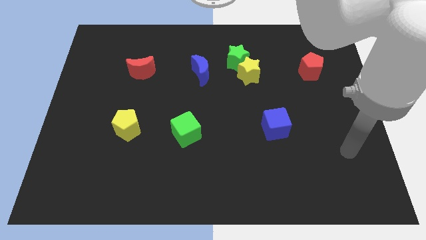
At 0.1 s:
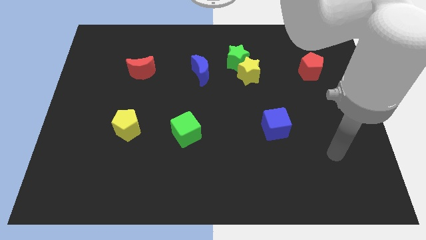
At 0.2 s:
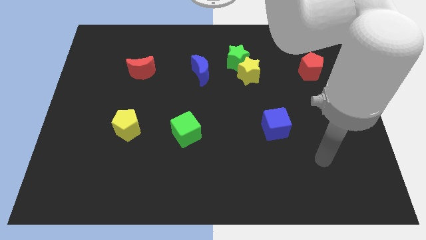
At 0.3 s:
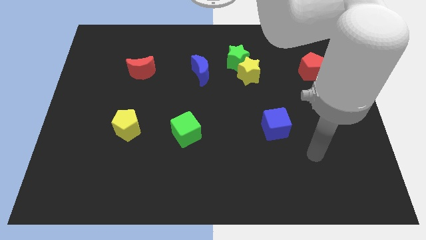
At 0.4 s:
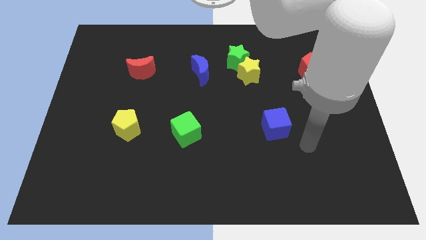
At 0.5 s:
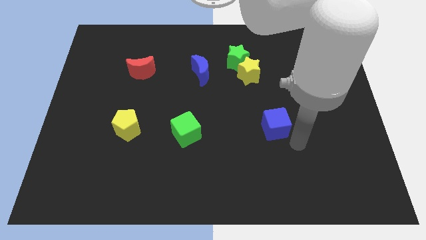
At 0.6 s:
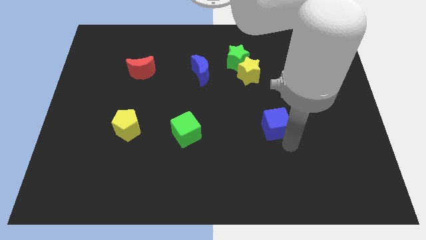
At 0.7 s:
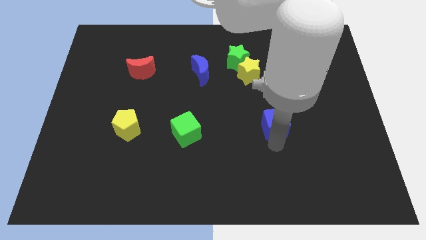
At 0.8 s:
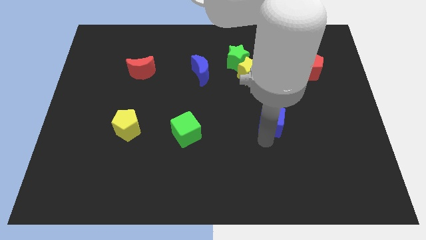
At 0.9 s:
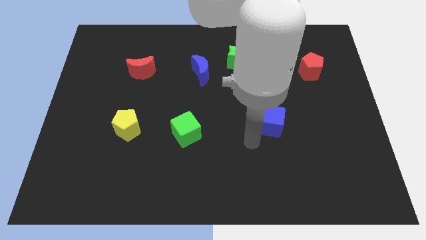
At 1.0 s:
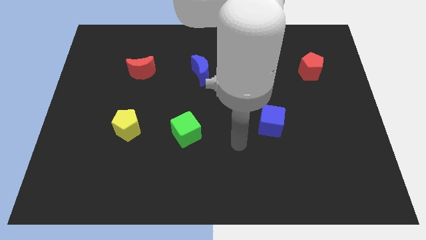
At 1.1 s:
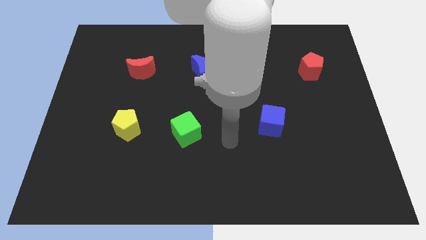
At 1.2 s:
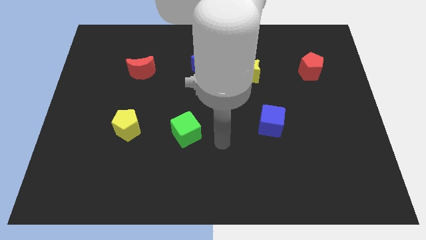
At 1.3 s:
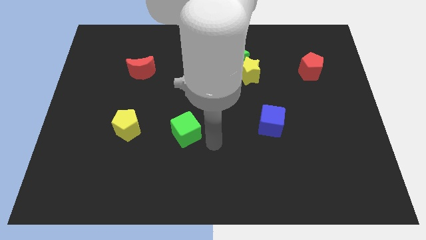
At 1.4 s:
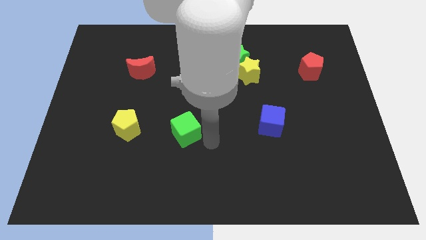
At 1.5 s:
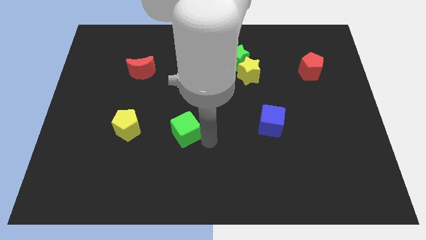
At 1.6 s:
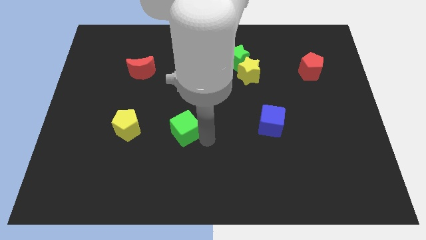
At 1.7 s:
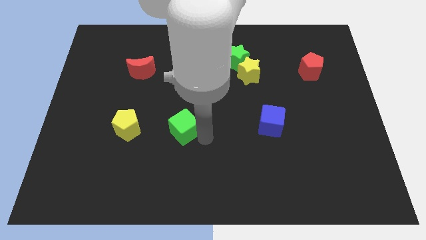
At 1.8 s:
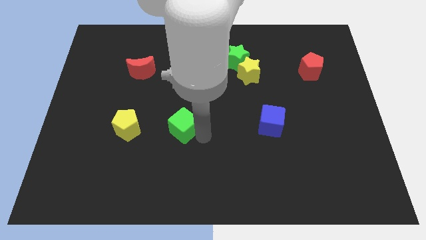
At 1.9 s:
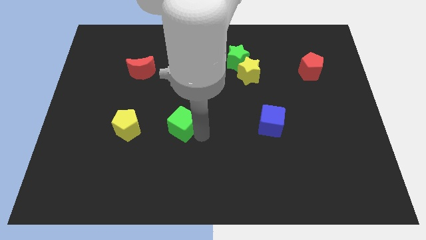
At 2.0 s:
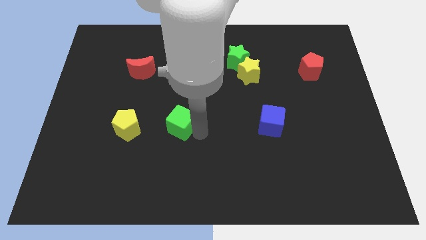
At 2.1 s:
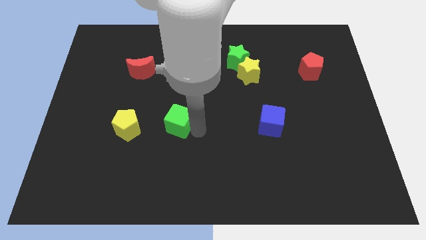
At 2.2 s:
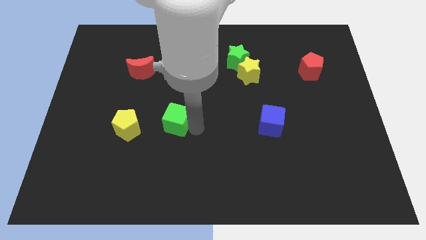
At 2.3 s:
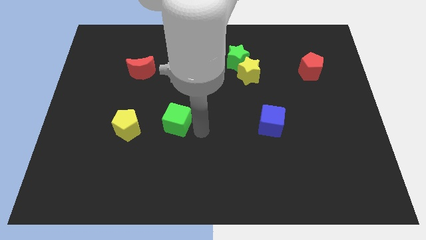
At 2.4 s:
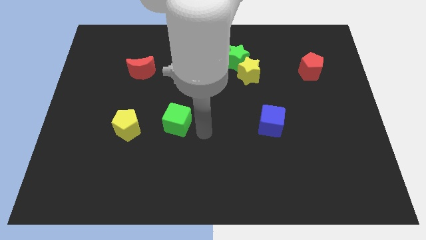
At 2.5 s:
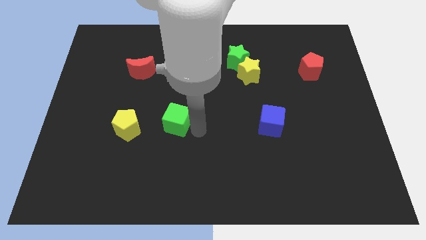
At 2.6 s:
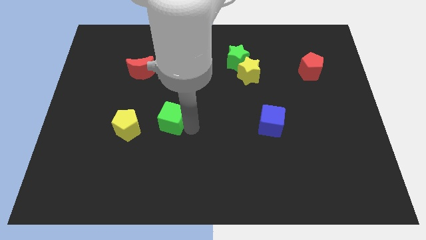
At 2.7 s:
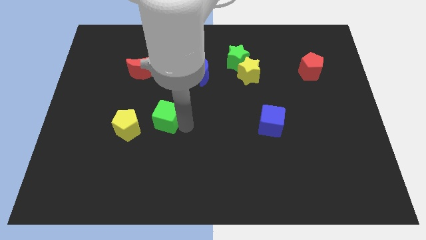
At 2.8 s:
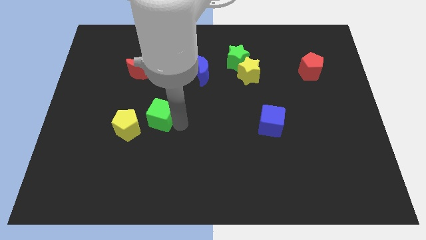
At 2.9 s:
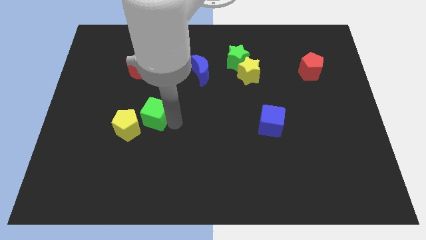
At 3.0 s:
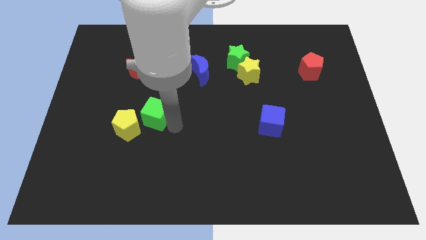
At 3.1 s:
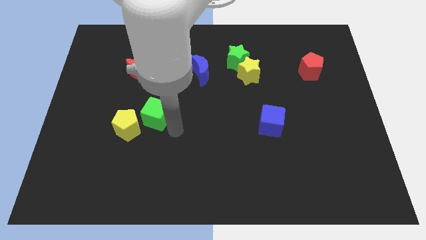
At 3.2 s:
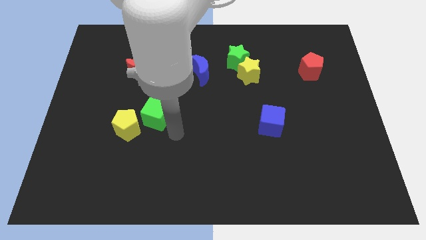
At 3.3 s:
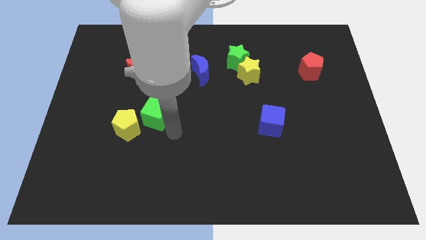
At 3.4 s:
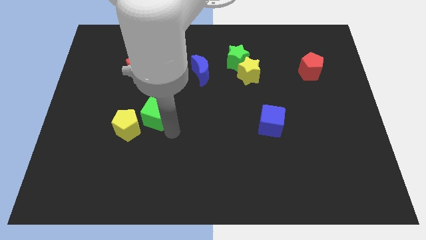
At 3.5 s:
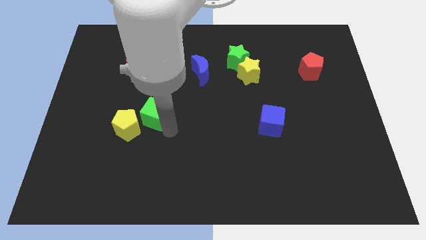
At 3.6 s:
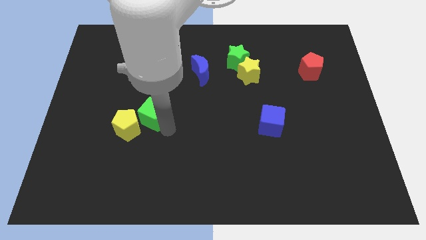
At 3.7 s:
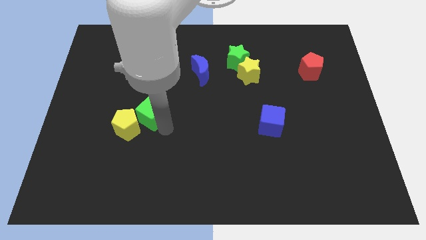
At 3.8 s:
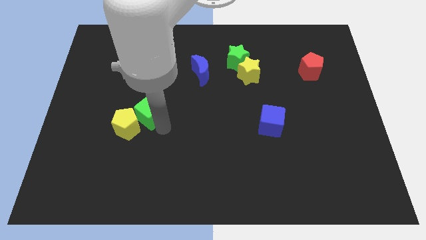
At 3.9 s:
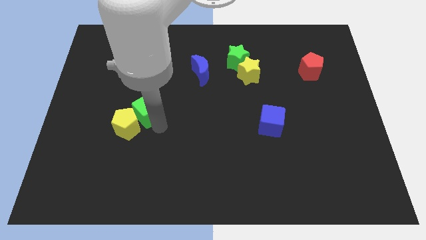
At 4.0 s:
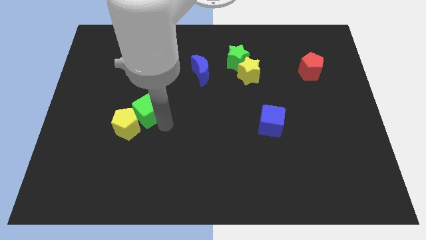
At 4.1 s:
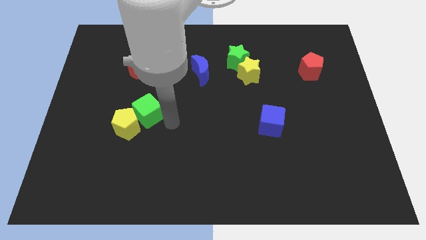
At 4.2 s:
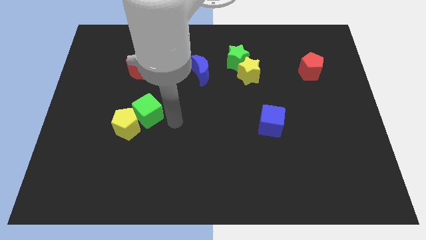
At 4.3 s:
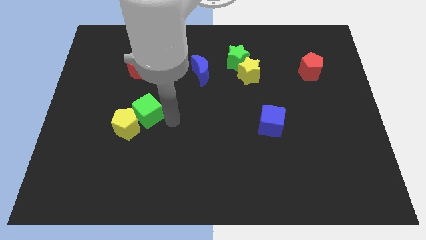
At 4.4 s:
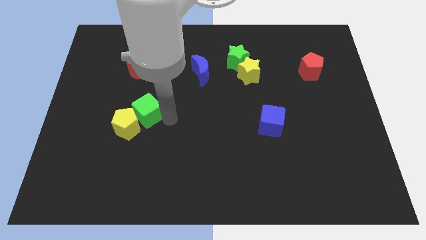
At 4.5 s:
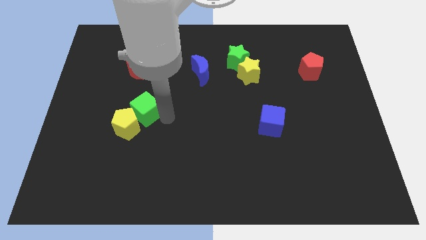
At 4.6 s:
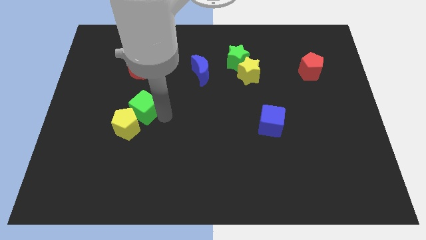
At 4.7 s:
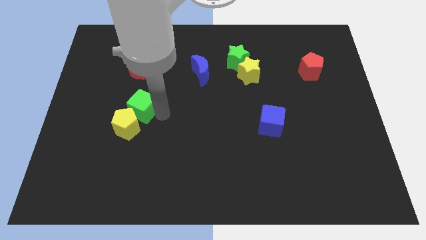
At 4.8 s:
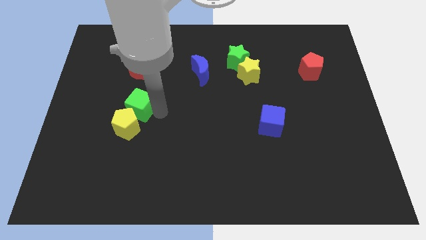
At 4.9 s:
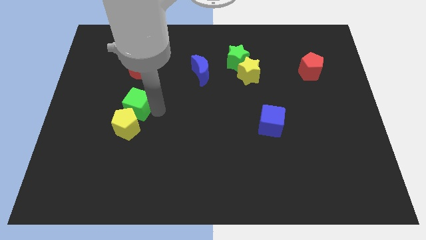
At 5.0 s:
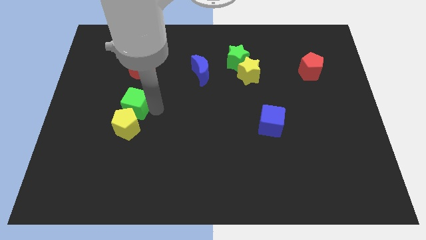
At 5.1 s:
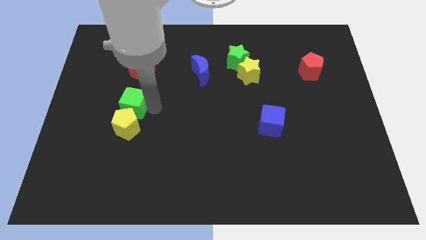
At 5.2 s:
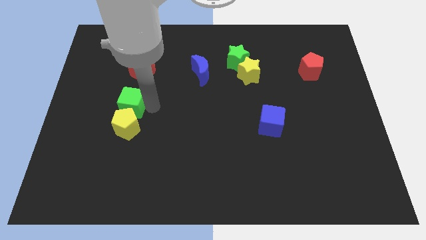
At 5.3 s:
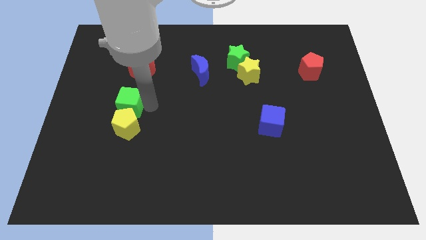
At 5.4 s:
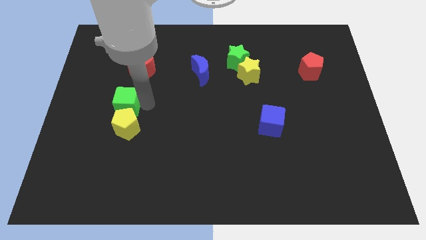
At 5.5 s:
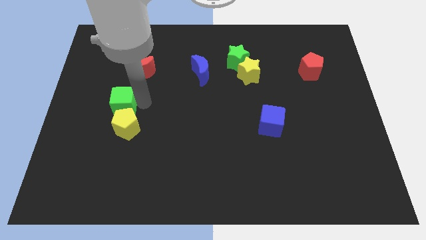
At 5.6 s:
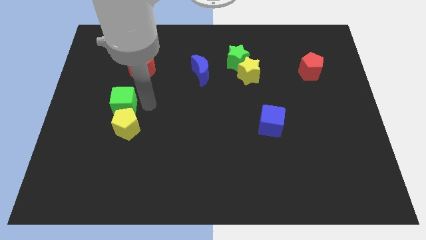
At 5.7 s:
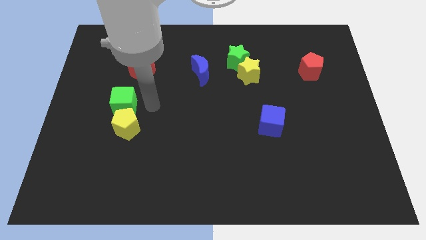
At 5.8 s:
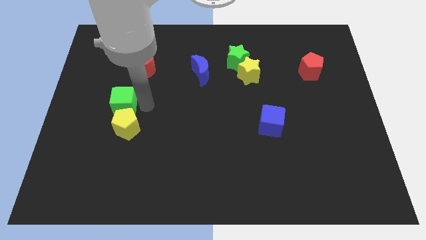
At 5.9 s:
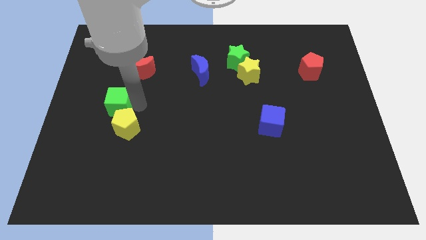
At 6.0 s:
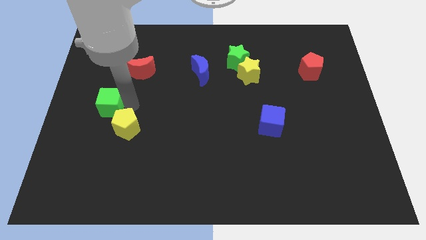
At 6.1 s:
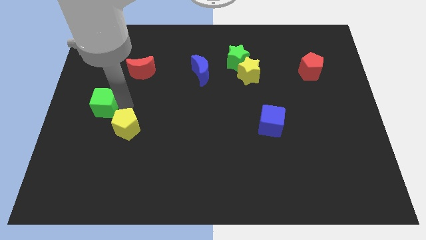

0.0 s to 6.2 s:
slide the green cube to the center left
